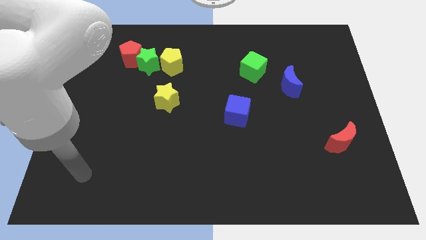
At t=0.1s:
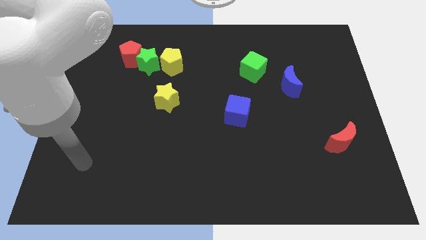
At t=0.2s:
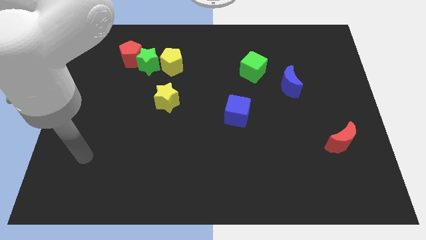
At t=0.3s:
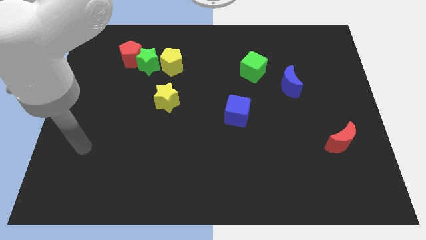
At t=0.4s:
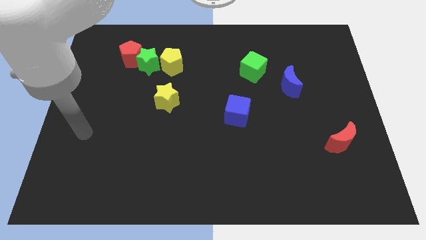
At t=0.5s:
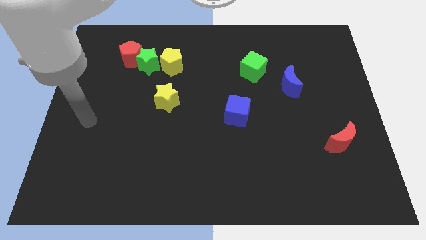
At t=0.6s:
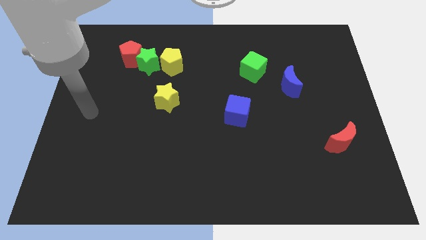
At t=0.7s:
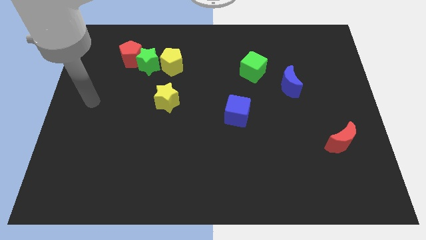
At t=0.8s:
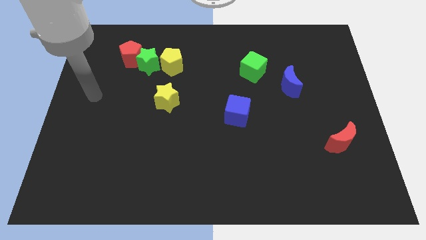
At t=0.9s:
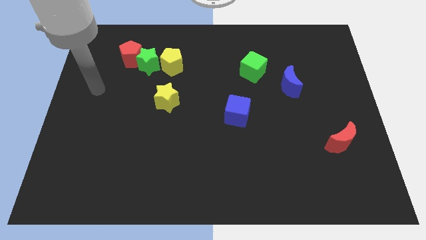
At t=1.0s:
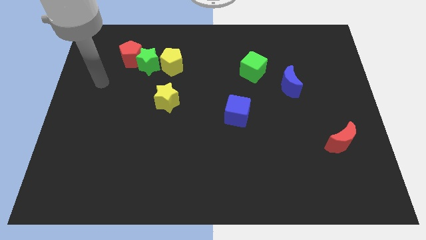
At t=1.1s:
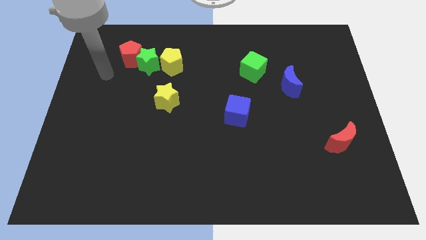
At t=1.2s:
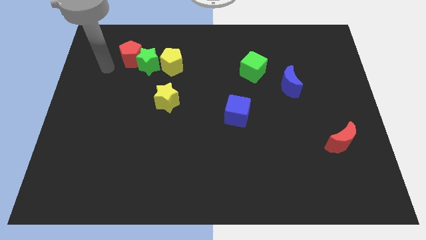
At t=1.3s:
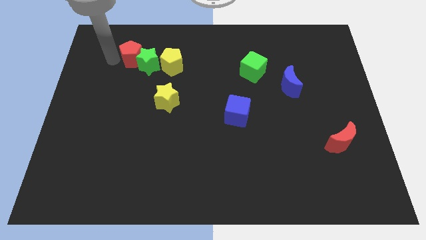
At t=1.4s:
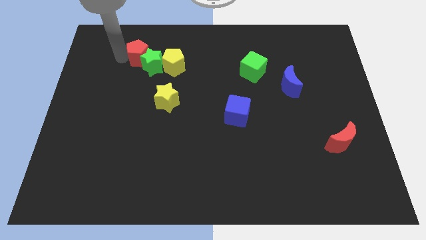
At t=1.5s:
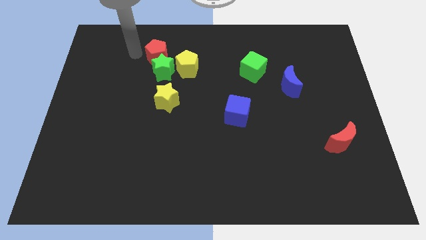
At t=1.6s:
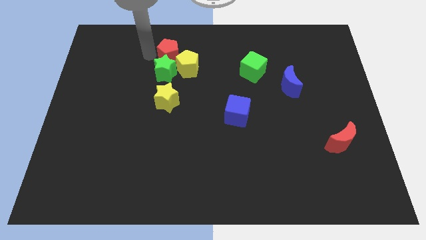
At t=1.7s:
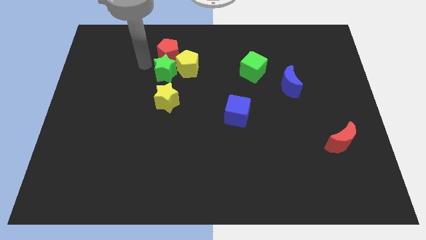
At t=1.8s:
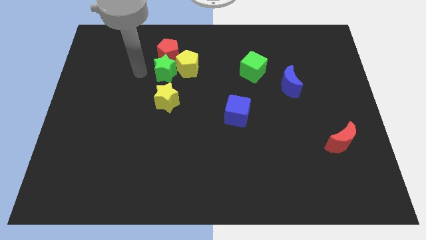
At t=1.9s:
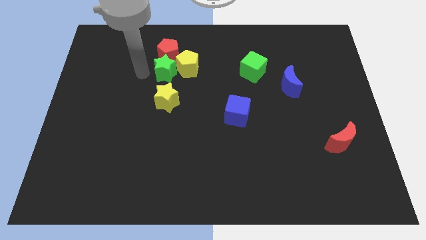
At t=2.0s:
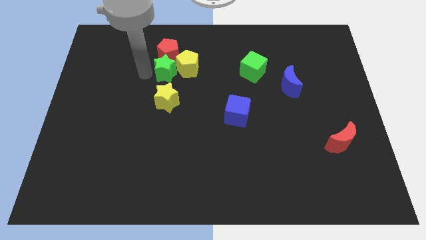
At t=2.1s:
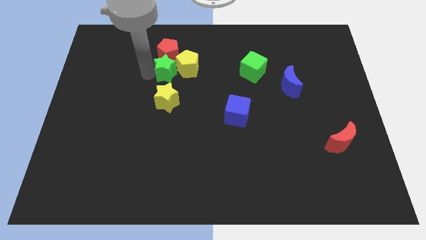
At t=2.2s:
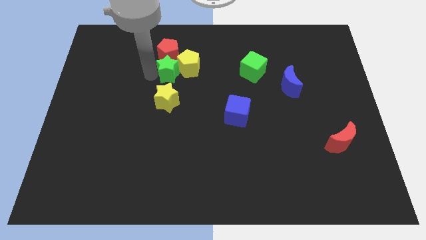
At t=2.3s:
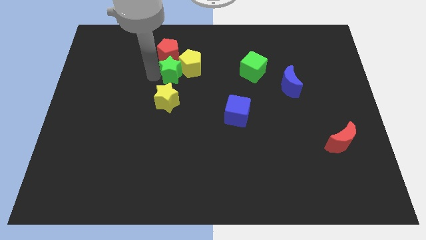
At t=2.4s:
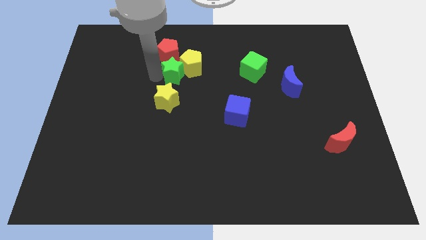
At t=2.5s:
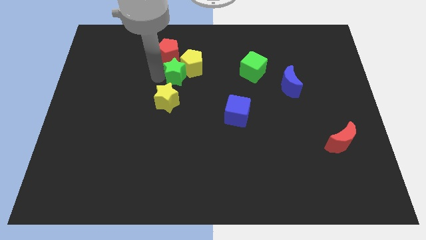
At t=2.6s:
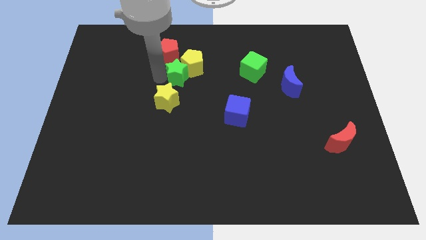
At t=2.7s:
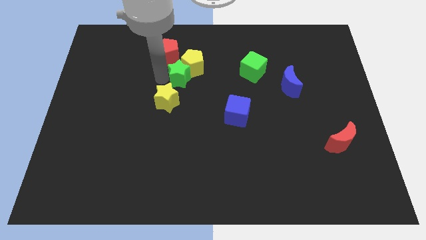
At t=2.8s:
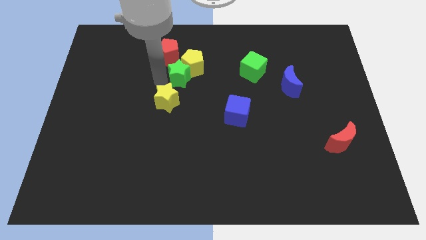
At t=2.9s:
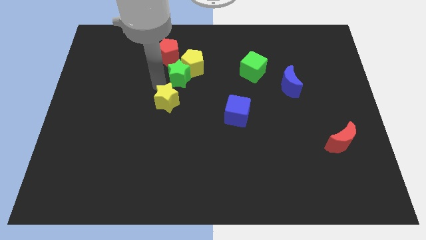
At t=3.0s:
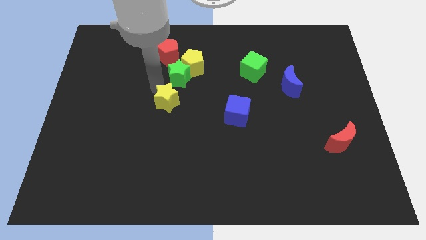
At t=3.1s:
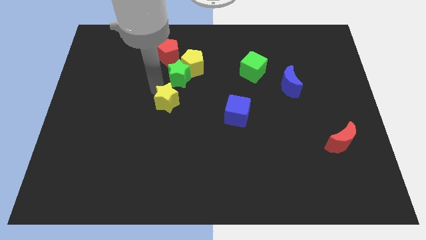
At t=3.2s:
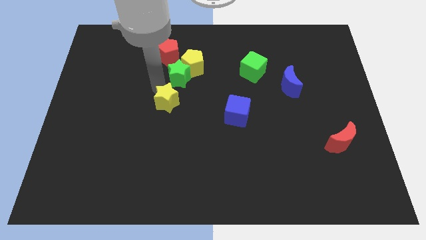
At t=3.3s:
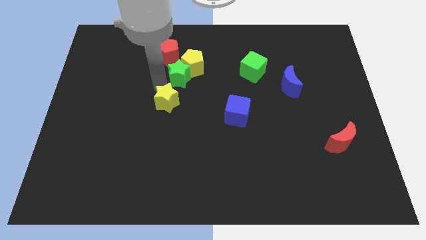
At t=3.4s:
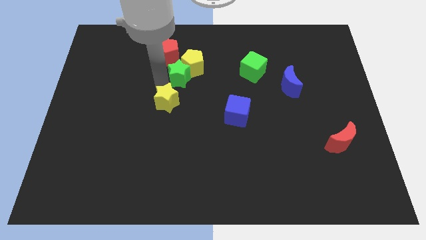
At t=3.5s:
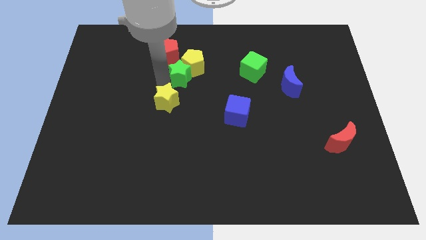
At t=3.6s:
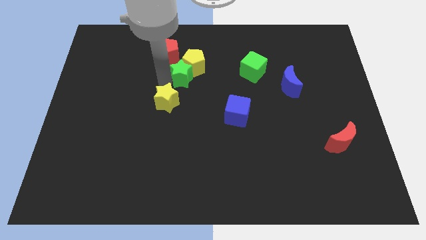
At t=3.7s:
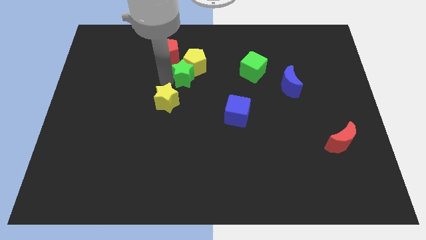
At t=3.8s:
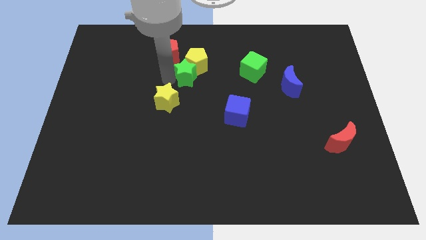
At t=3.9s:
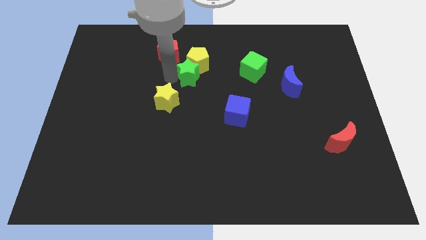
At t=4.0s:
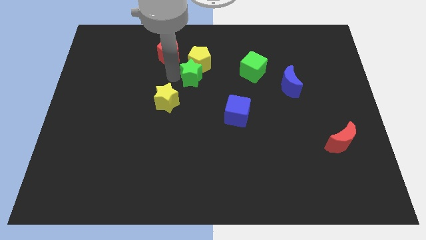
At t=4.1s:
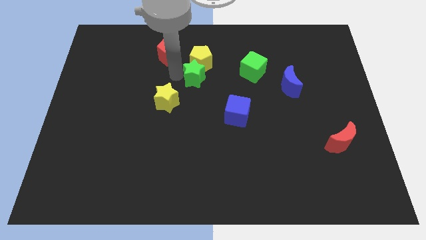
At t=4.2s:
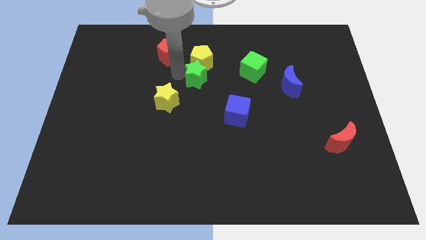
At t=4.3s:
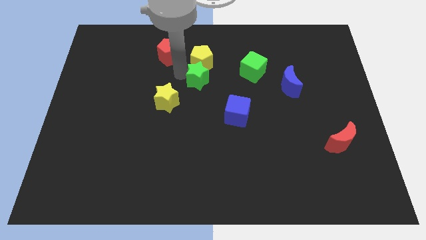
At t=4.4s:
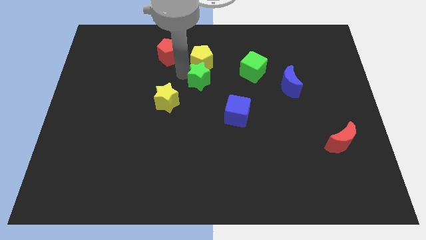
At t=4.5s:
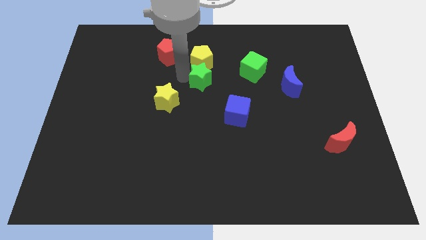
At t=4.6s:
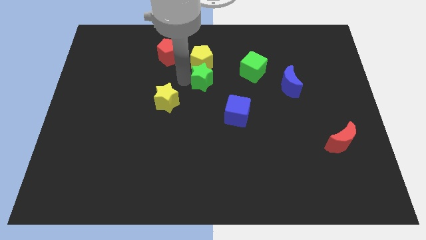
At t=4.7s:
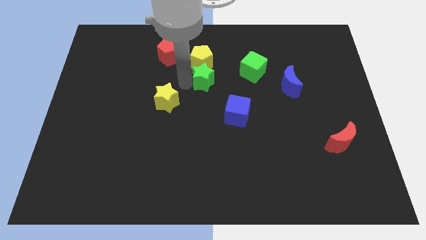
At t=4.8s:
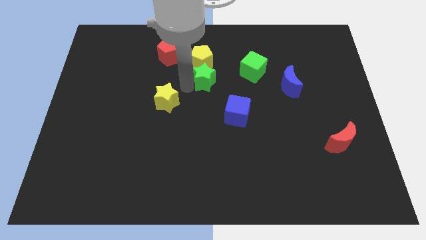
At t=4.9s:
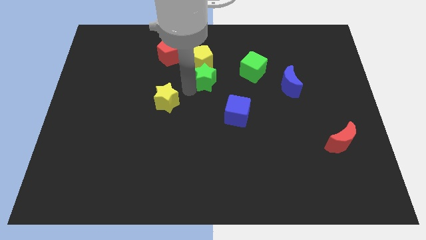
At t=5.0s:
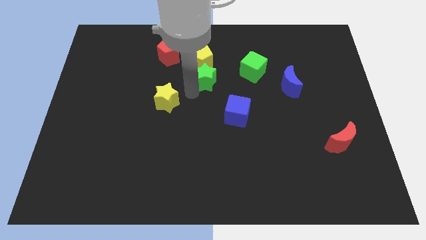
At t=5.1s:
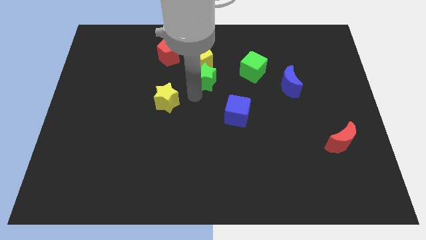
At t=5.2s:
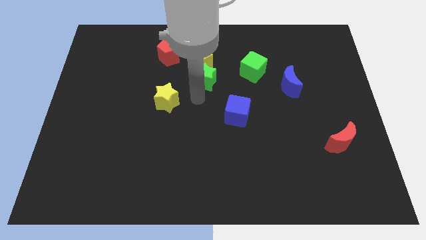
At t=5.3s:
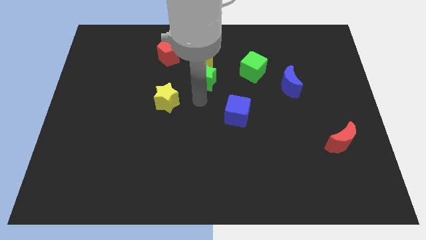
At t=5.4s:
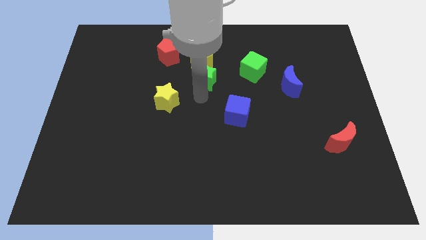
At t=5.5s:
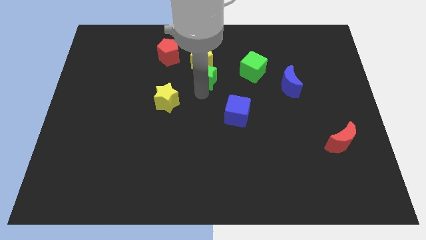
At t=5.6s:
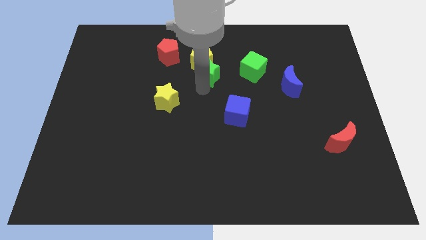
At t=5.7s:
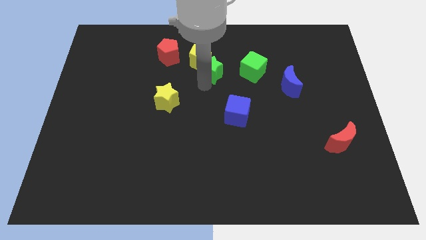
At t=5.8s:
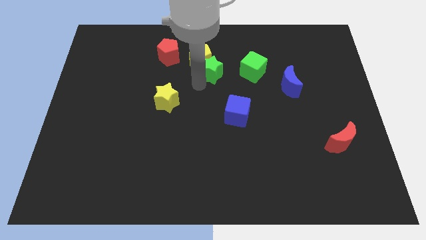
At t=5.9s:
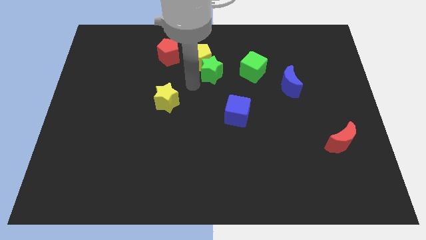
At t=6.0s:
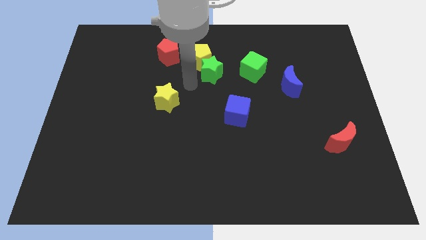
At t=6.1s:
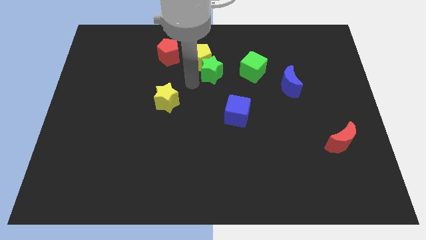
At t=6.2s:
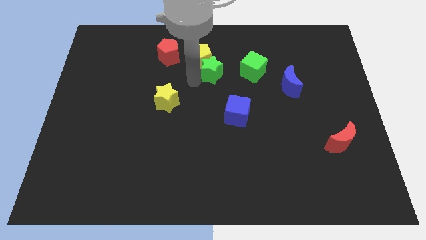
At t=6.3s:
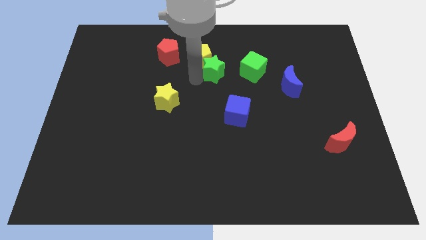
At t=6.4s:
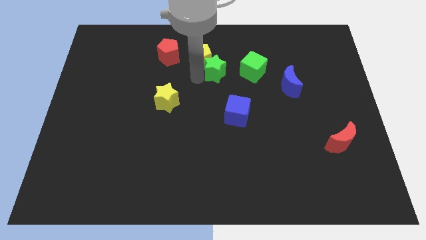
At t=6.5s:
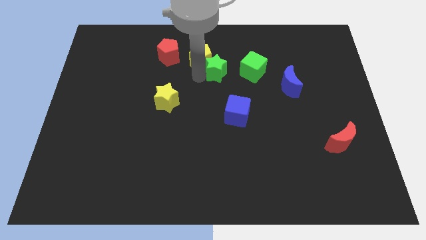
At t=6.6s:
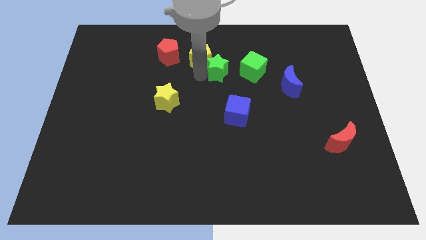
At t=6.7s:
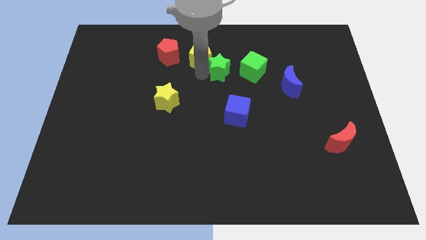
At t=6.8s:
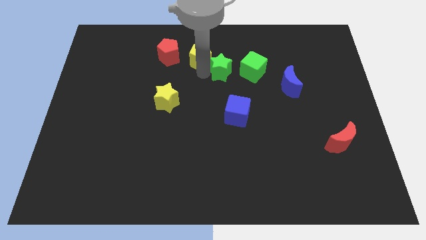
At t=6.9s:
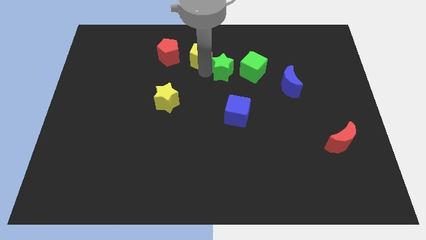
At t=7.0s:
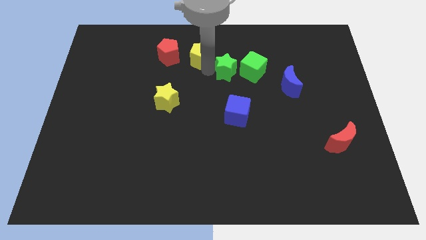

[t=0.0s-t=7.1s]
slide the green star to the right

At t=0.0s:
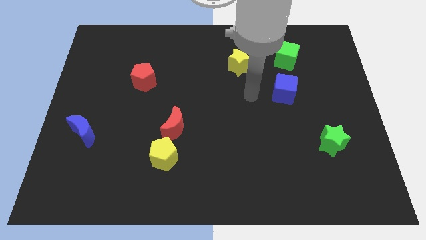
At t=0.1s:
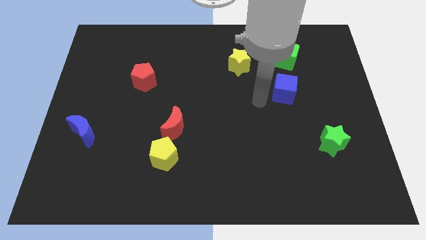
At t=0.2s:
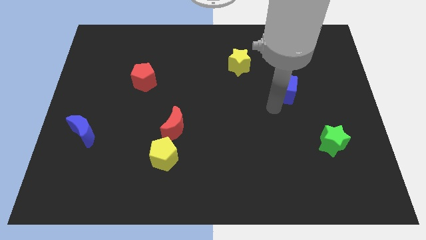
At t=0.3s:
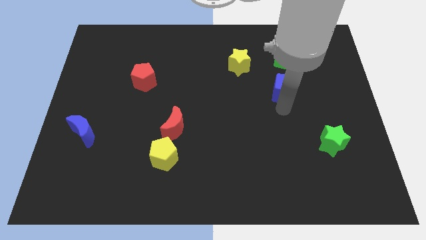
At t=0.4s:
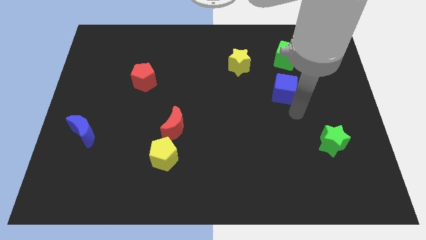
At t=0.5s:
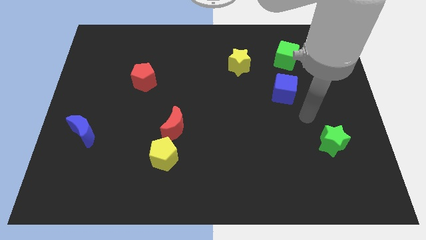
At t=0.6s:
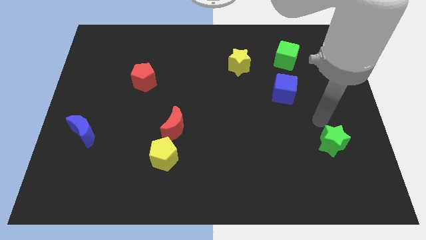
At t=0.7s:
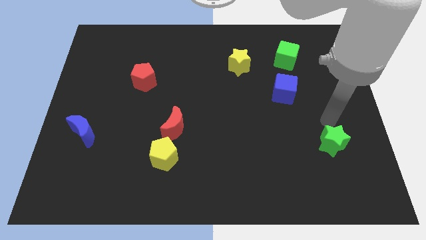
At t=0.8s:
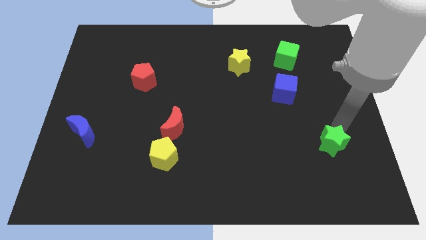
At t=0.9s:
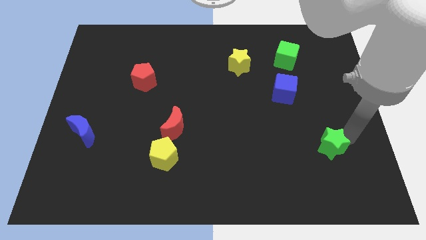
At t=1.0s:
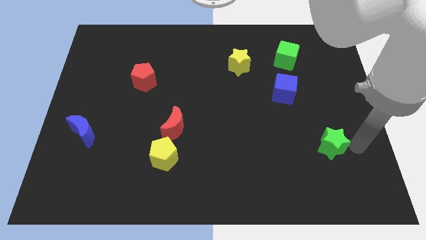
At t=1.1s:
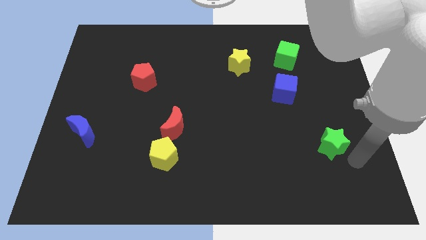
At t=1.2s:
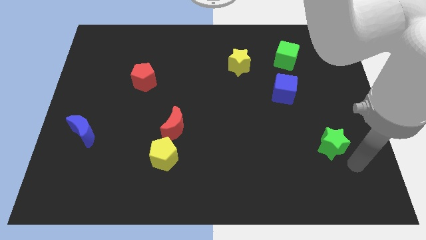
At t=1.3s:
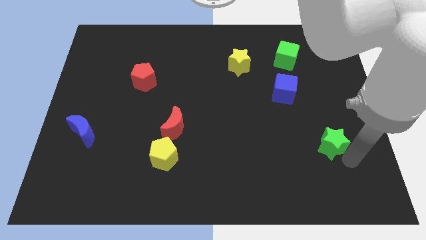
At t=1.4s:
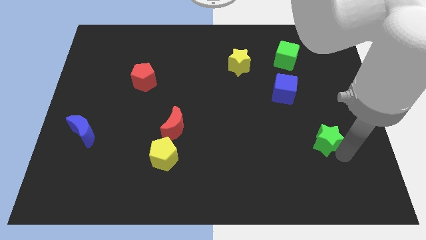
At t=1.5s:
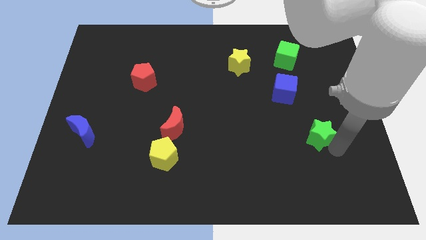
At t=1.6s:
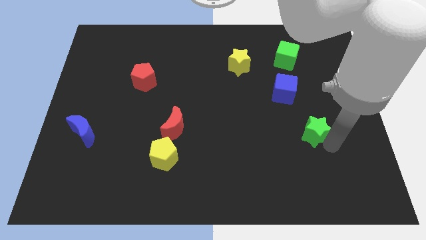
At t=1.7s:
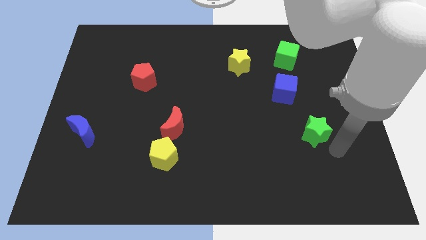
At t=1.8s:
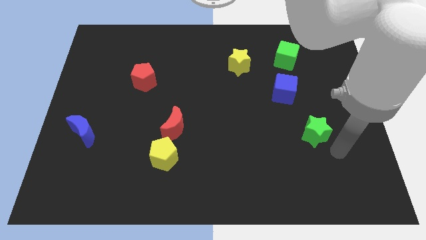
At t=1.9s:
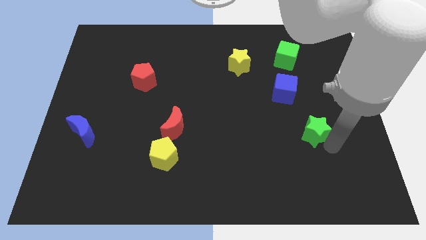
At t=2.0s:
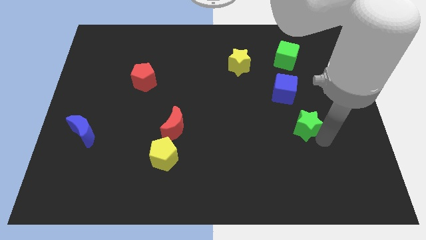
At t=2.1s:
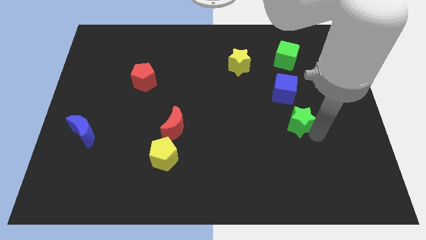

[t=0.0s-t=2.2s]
slide the green star a little up and left diagonally
